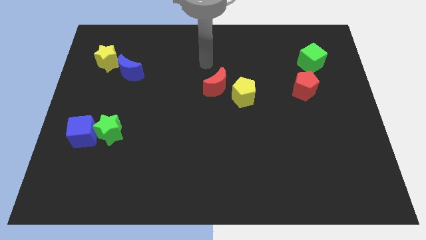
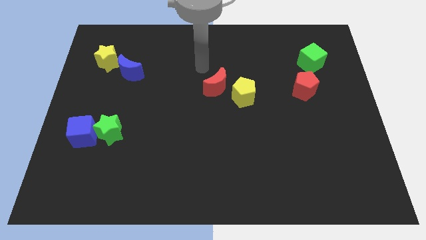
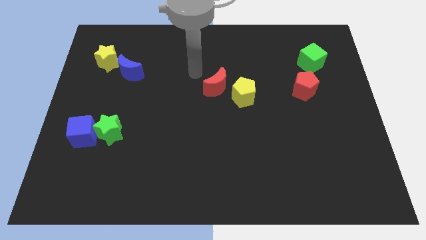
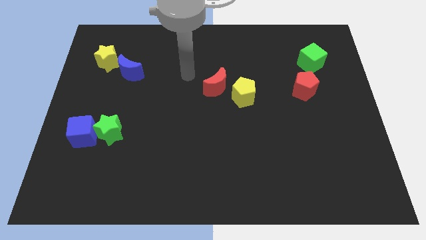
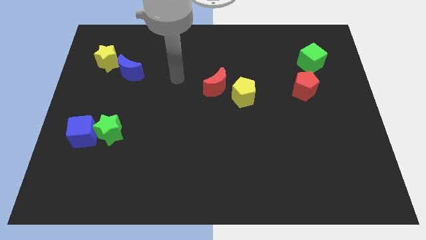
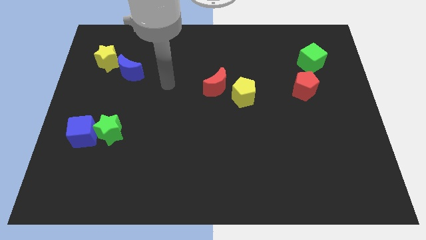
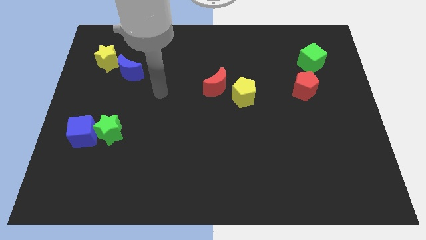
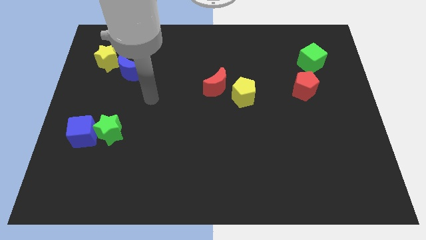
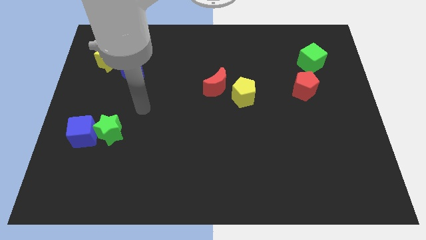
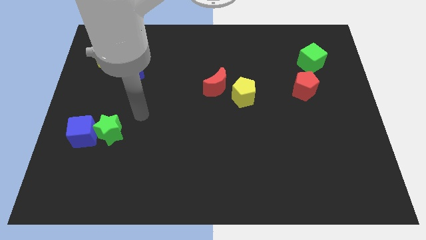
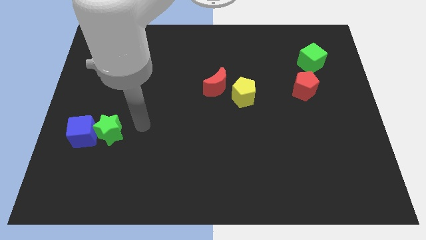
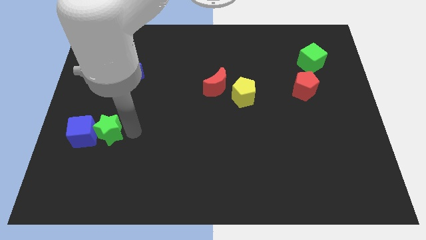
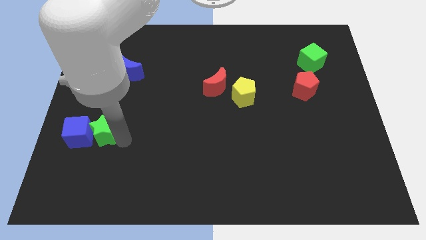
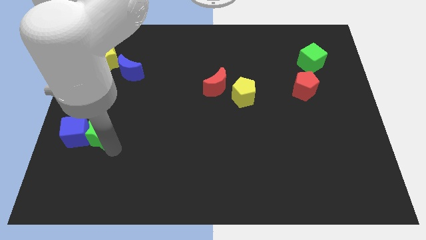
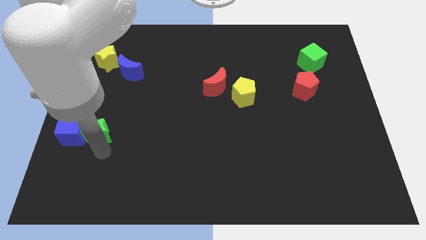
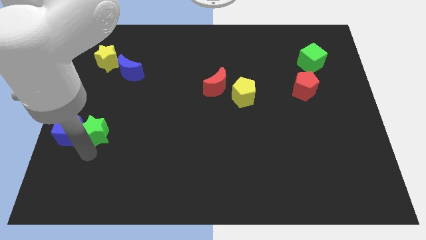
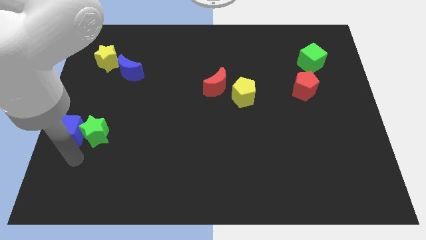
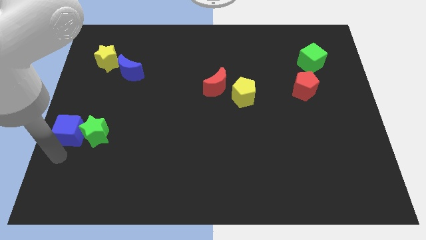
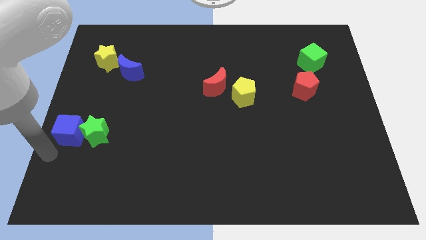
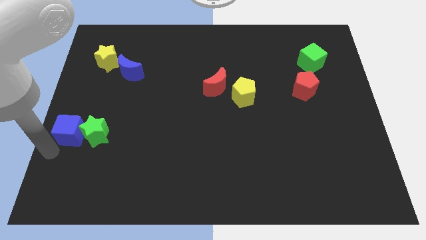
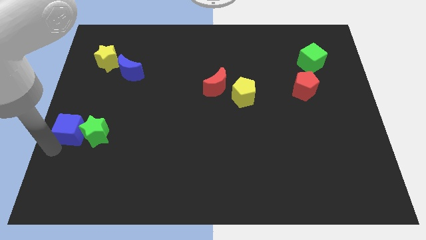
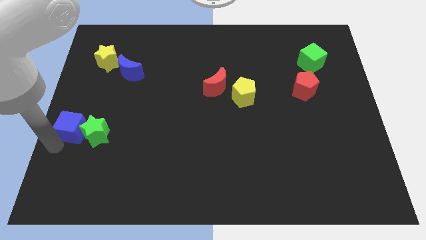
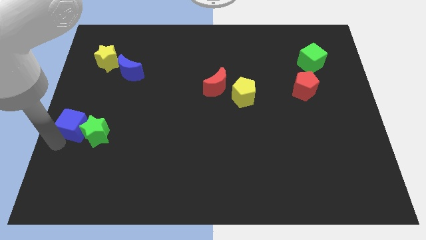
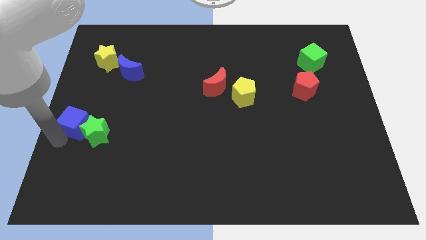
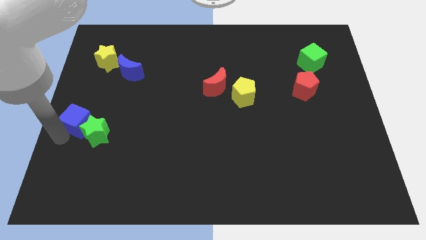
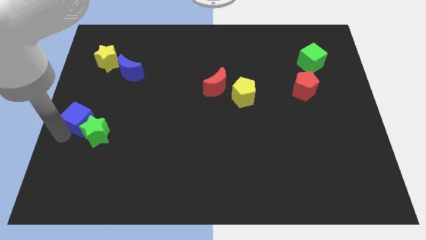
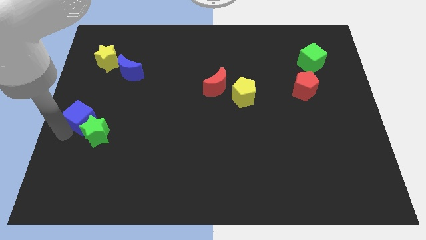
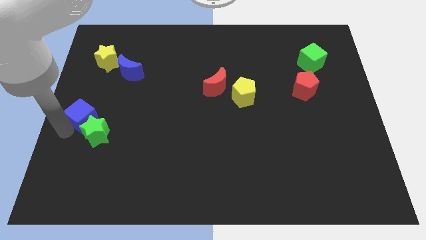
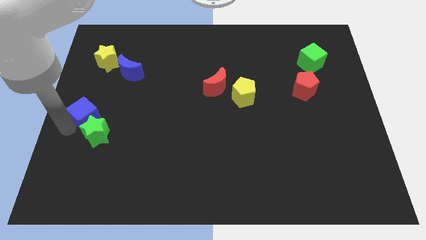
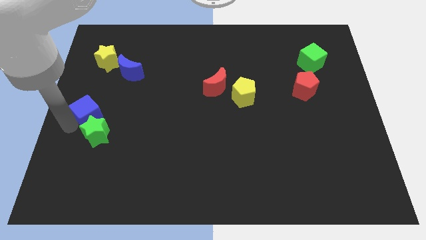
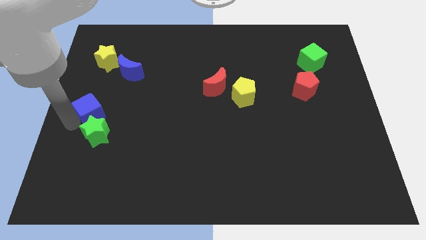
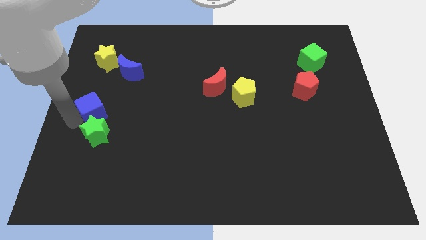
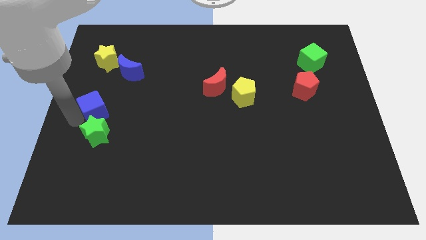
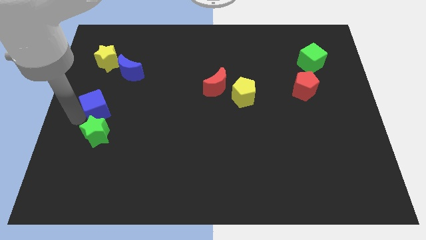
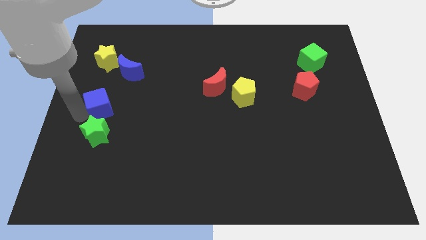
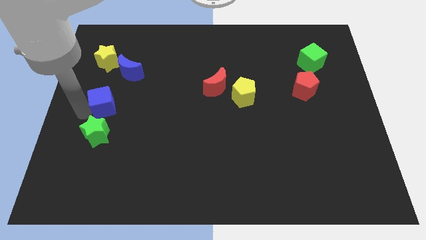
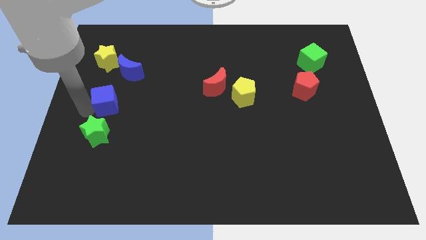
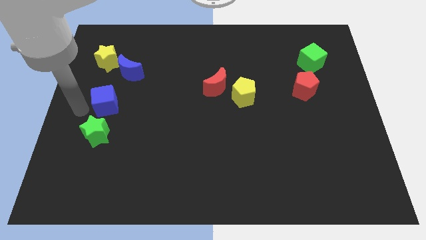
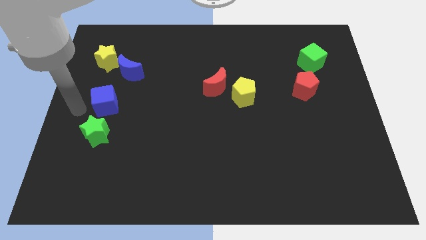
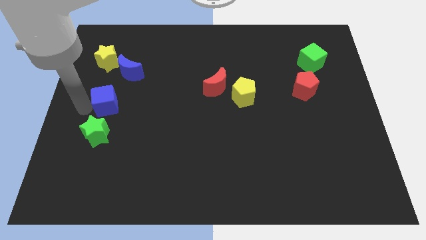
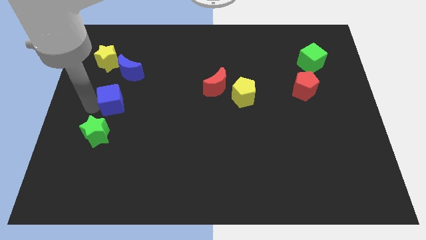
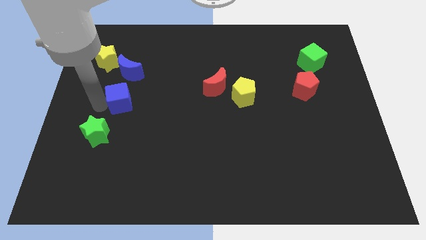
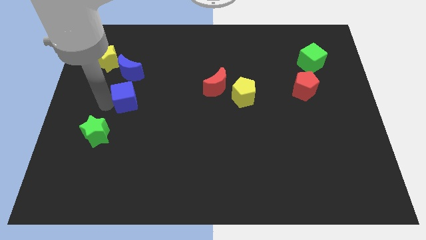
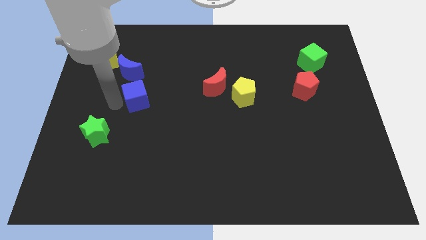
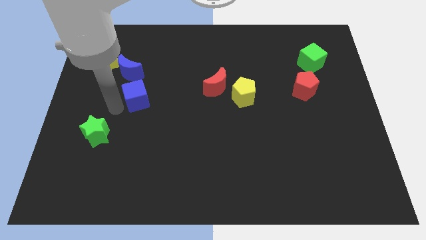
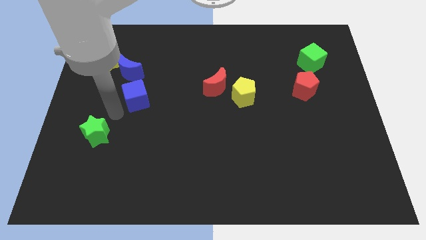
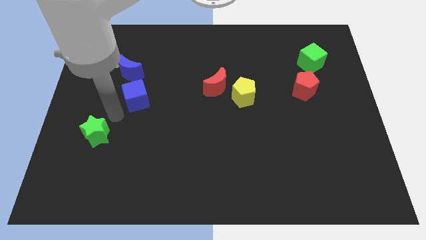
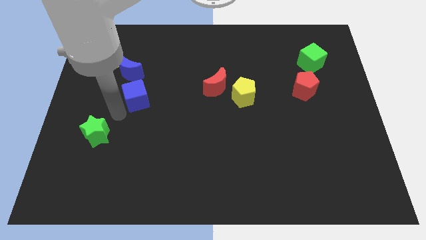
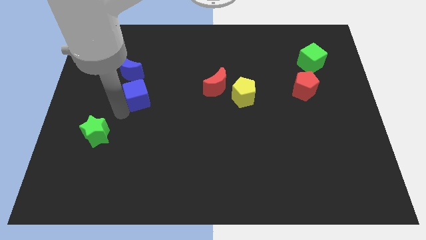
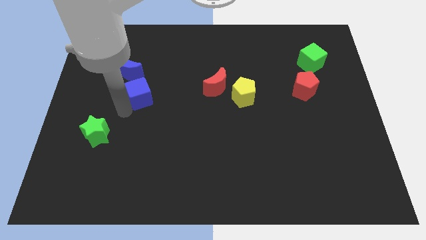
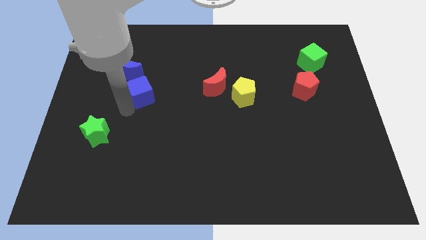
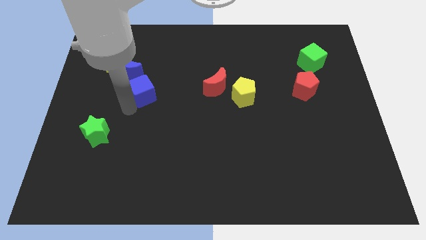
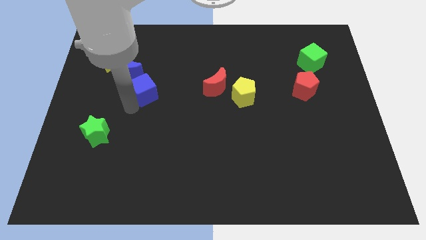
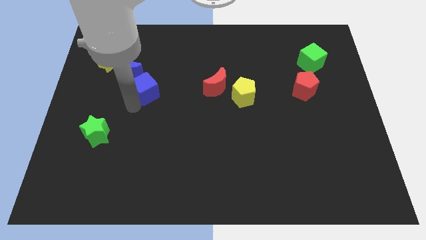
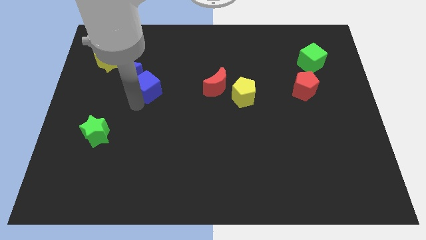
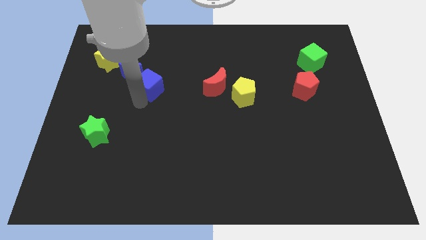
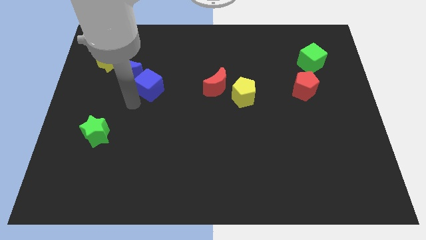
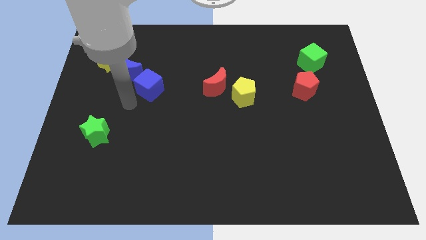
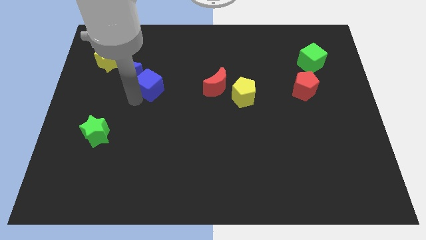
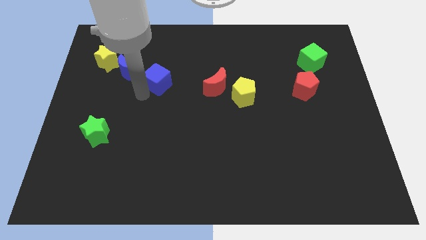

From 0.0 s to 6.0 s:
move the blue cube up and right

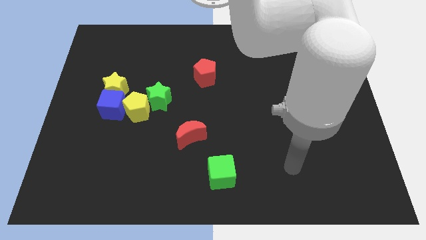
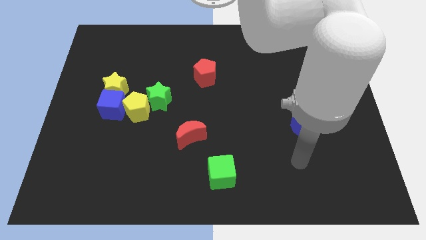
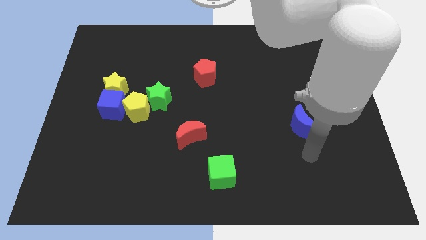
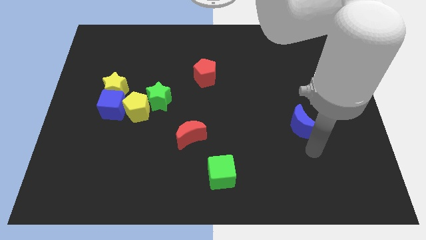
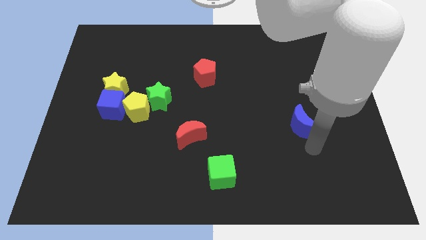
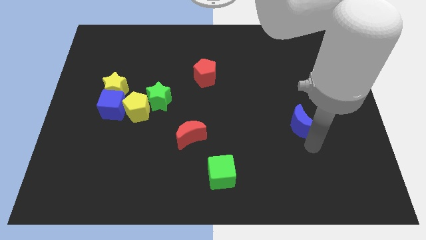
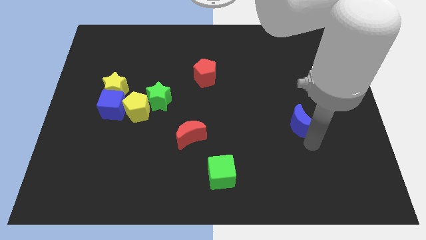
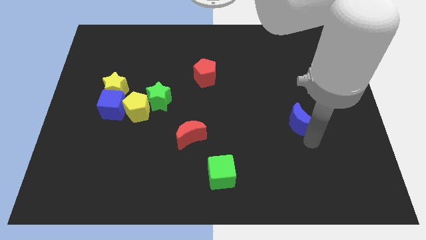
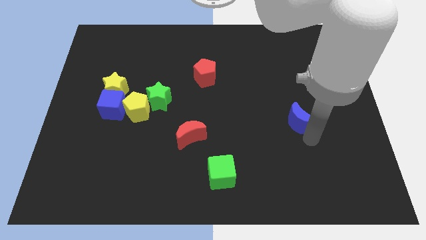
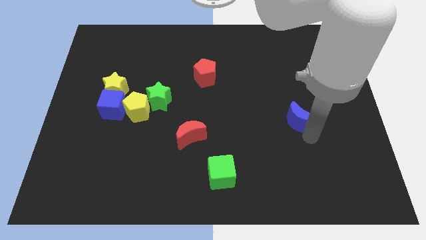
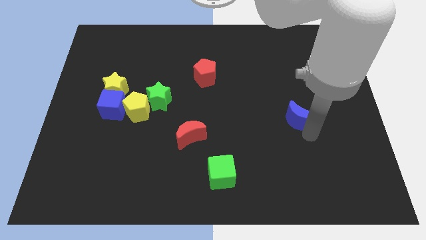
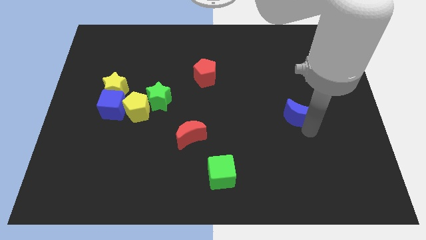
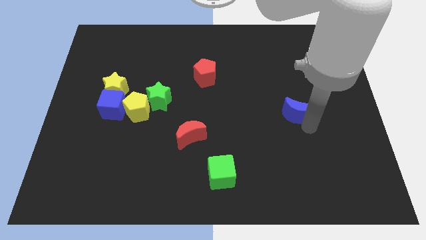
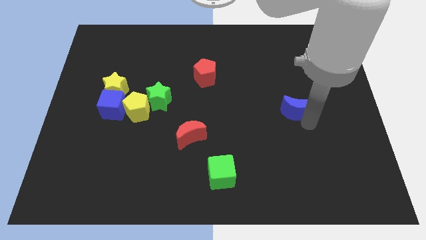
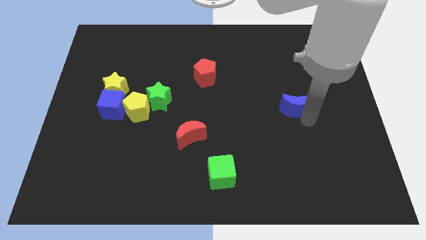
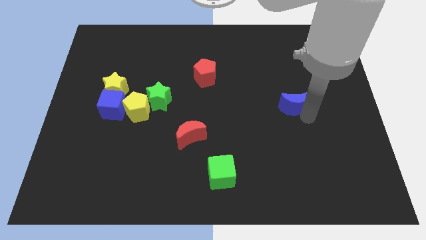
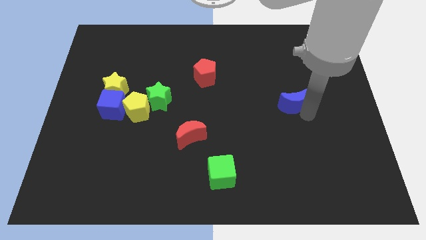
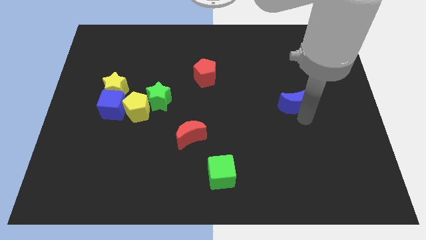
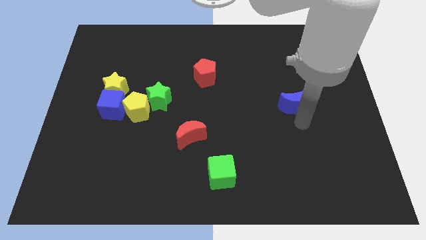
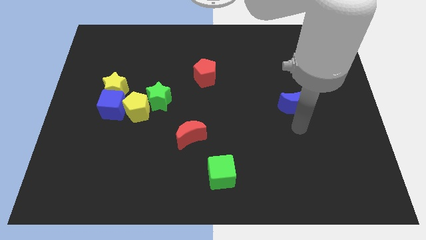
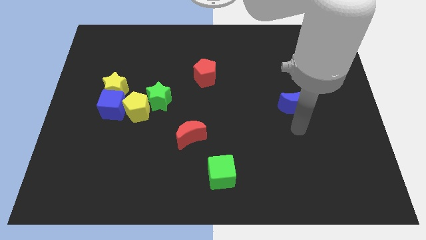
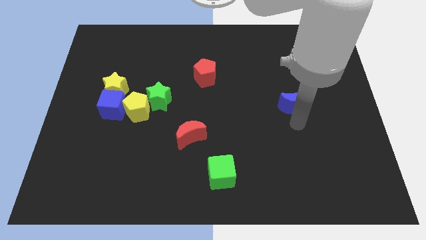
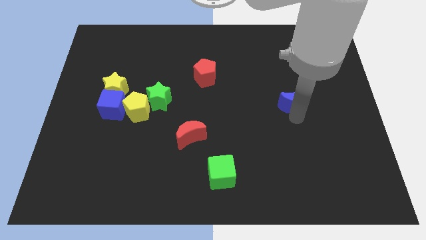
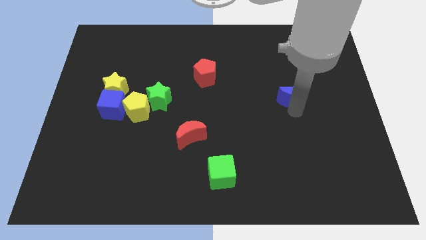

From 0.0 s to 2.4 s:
slightly slide the blue moon up
